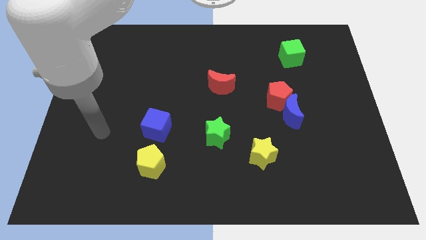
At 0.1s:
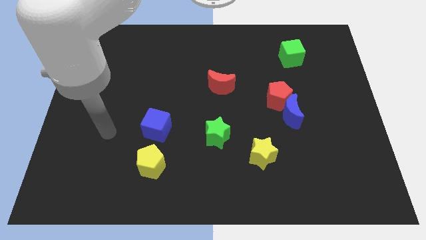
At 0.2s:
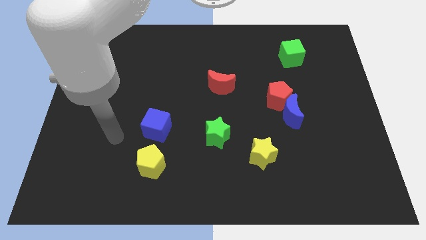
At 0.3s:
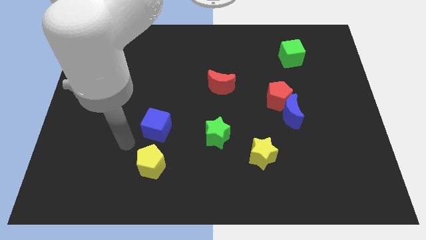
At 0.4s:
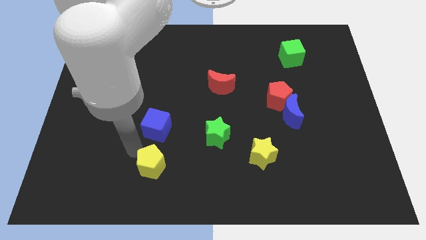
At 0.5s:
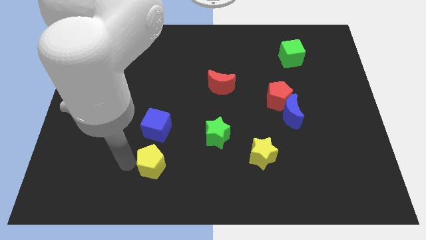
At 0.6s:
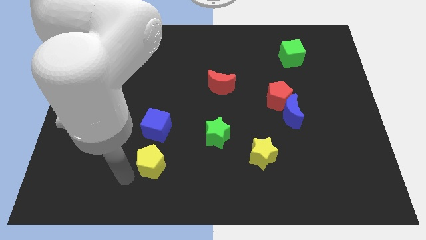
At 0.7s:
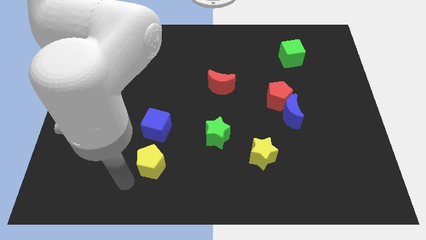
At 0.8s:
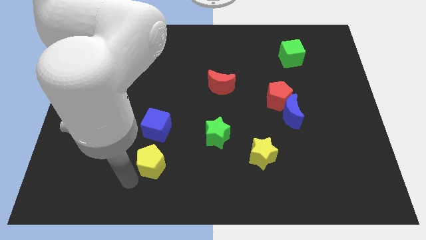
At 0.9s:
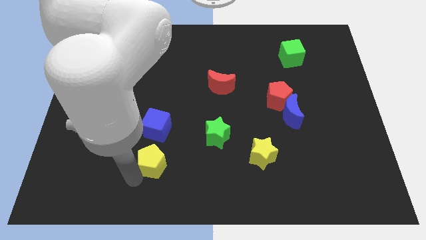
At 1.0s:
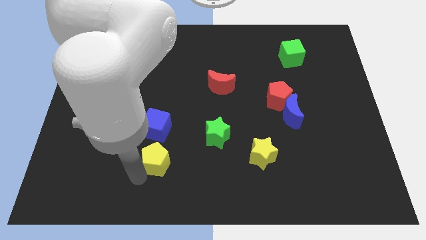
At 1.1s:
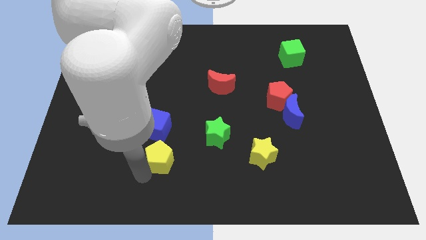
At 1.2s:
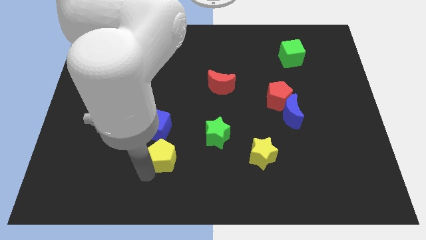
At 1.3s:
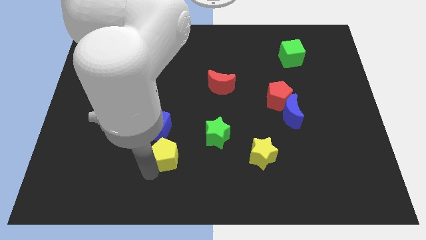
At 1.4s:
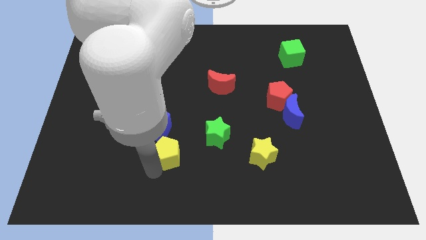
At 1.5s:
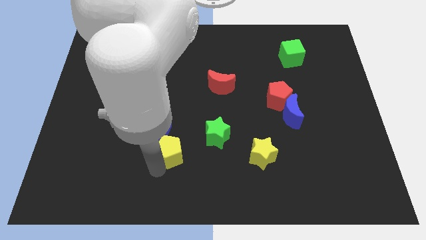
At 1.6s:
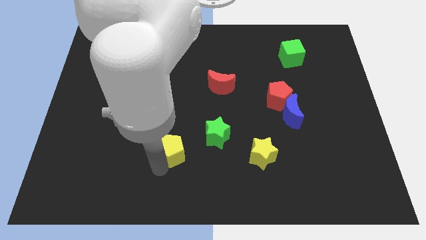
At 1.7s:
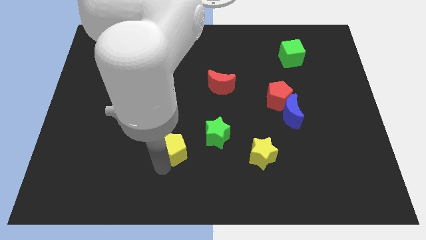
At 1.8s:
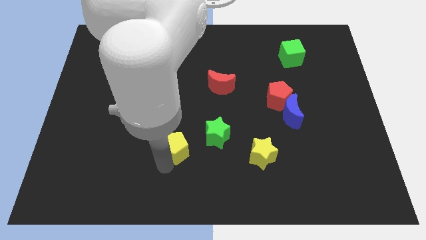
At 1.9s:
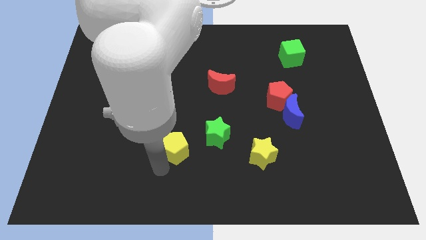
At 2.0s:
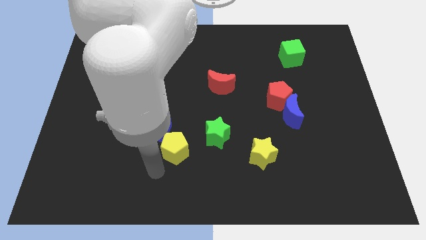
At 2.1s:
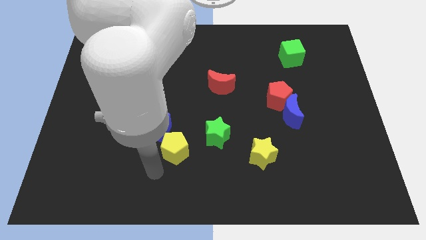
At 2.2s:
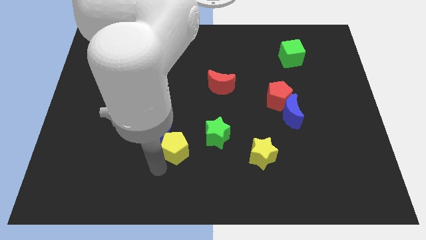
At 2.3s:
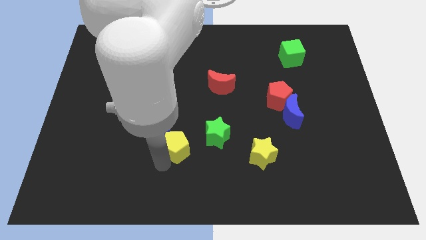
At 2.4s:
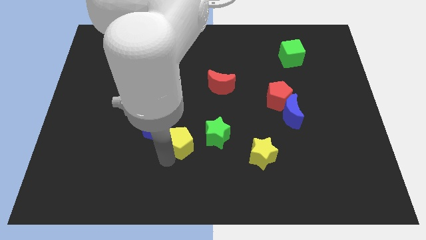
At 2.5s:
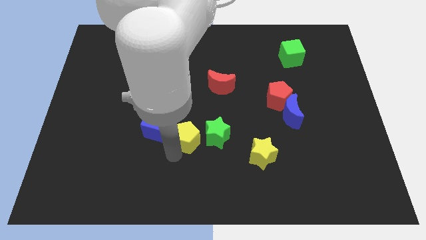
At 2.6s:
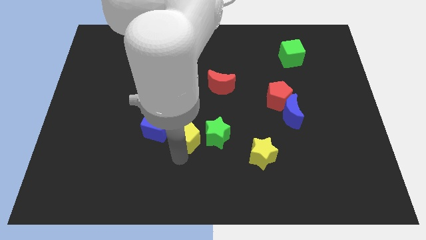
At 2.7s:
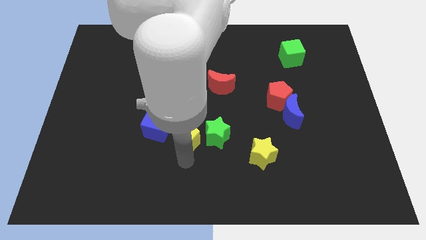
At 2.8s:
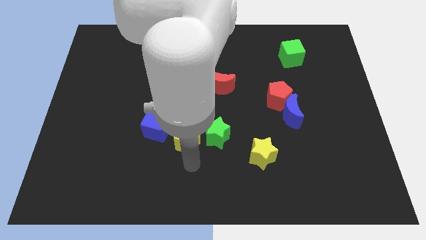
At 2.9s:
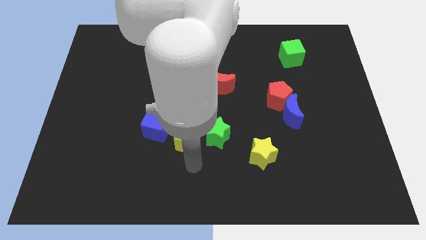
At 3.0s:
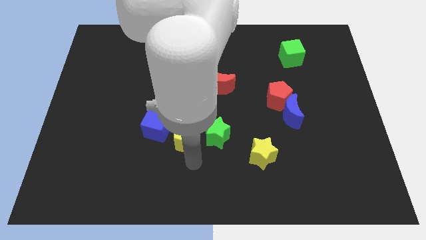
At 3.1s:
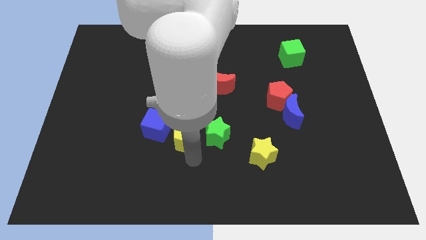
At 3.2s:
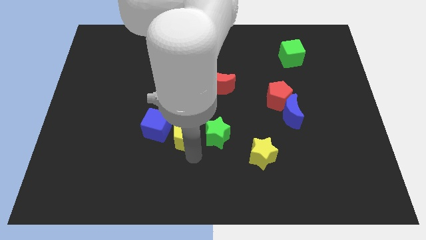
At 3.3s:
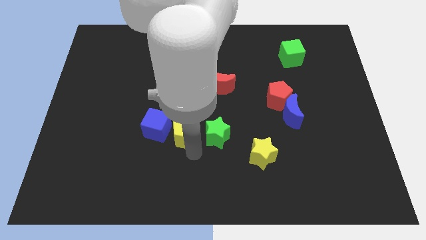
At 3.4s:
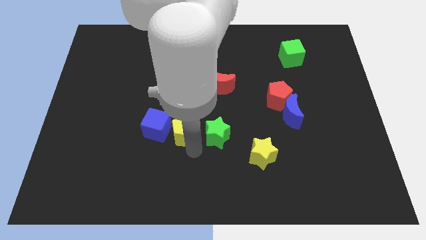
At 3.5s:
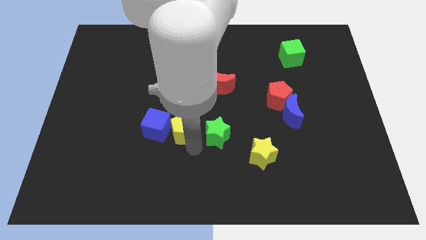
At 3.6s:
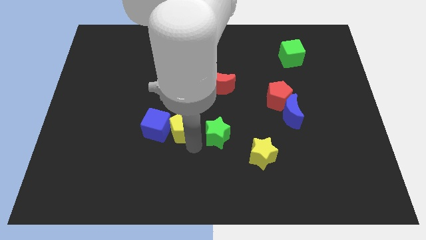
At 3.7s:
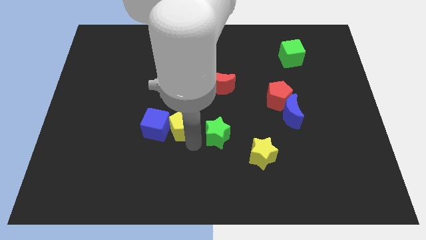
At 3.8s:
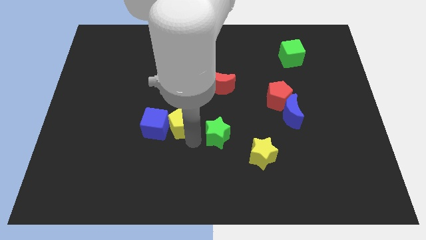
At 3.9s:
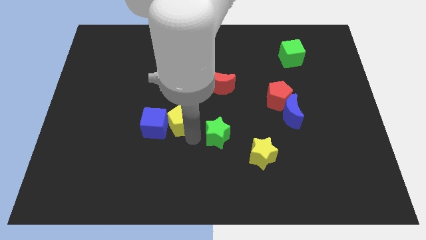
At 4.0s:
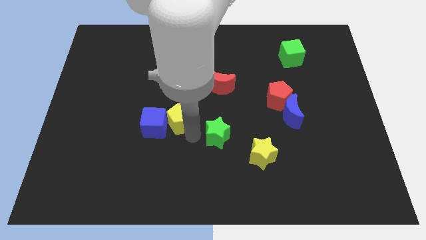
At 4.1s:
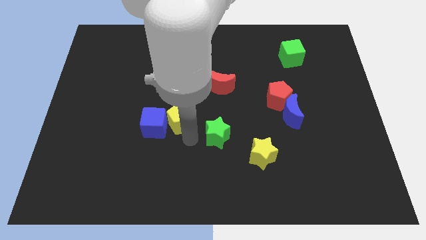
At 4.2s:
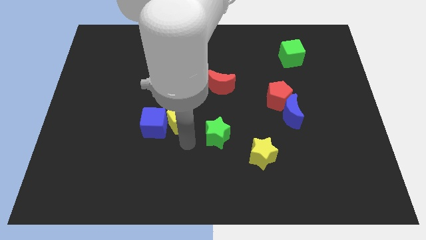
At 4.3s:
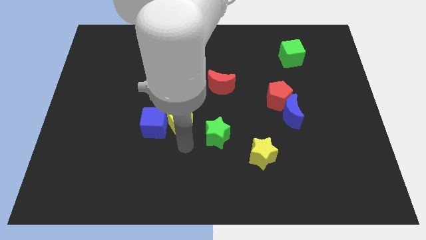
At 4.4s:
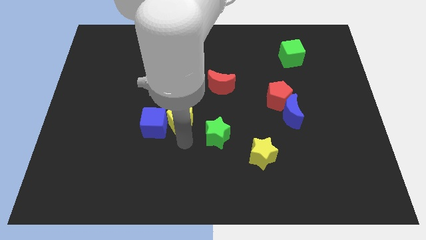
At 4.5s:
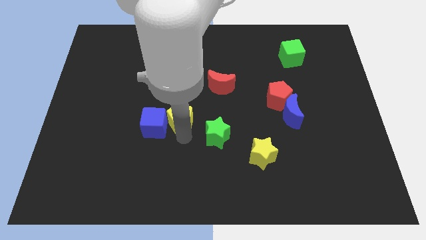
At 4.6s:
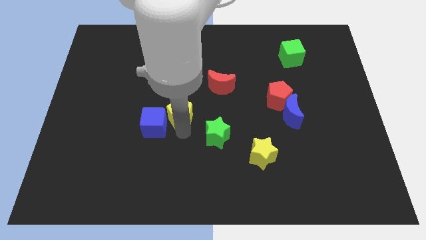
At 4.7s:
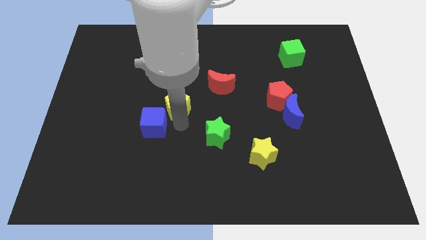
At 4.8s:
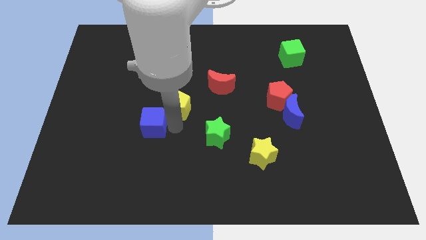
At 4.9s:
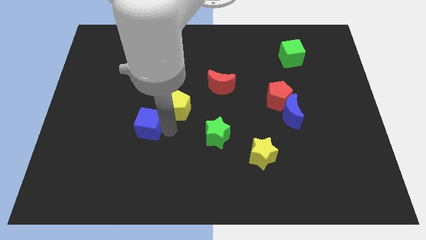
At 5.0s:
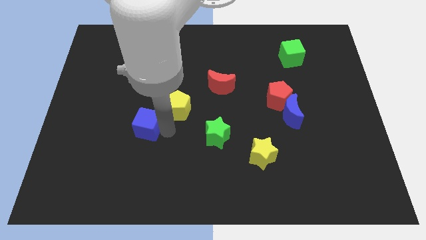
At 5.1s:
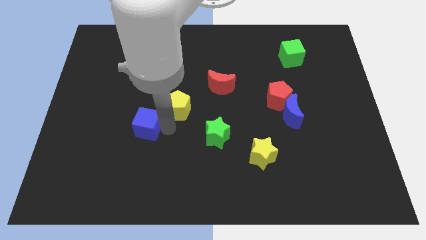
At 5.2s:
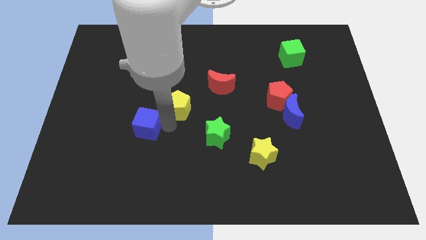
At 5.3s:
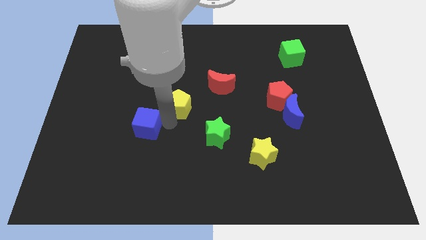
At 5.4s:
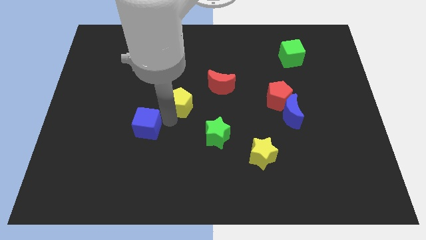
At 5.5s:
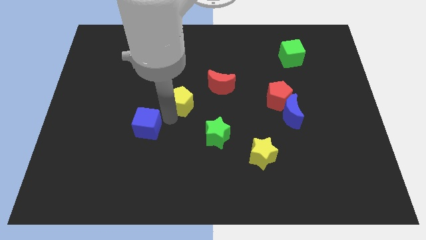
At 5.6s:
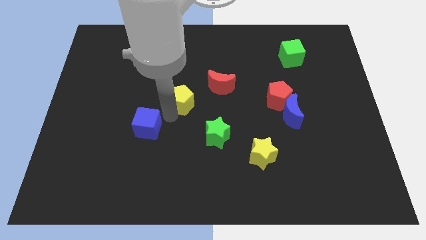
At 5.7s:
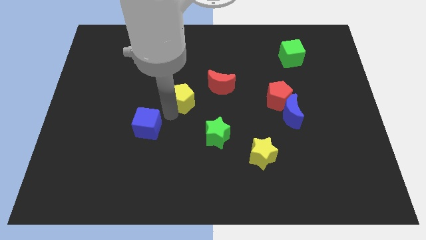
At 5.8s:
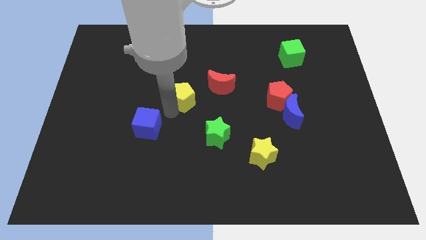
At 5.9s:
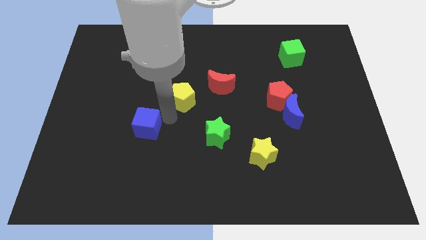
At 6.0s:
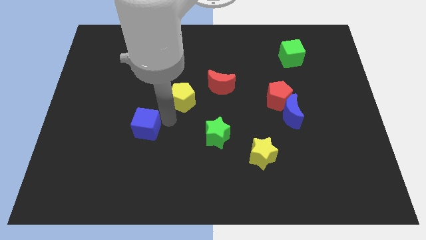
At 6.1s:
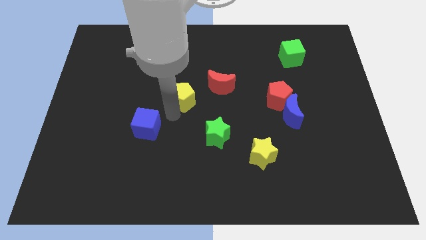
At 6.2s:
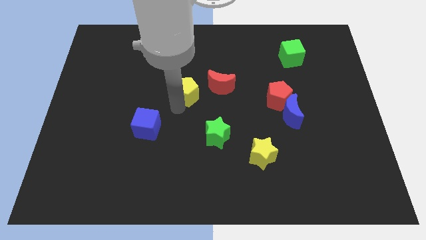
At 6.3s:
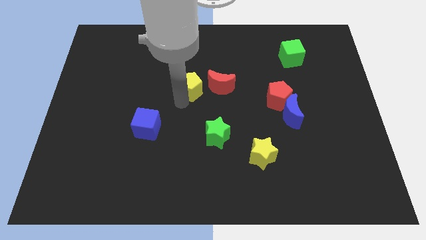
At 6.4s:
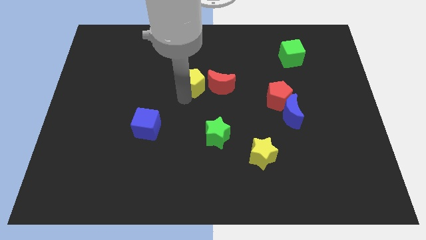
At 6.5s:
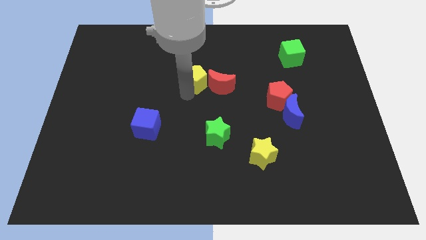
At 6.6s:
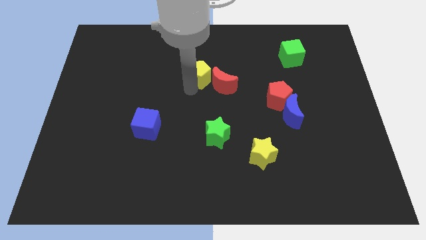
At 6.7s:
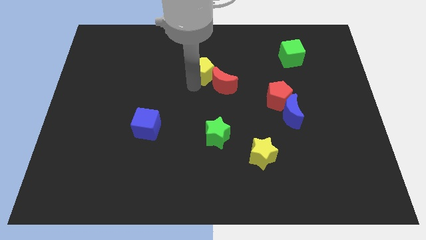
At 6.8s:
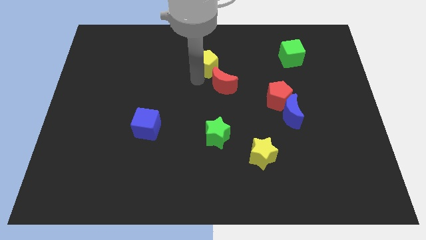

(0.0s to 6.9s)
move the yellow pentagon to the top side of the red moon

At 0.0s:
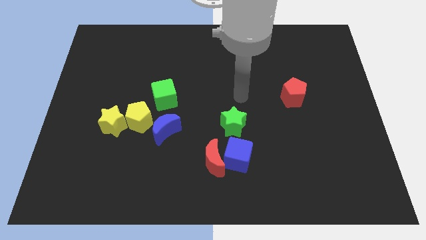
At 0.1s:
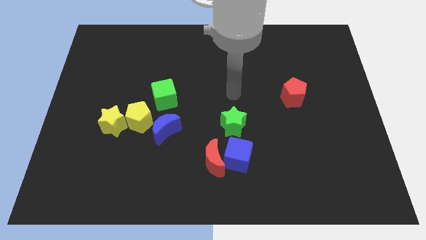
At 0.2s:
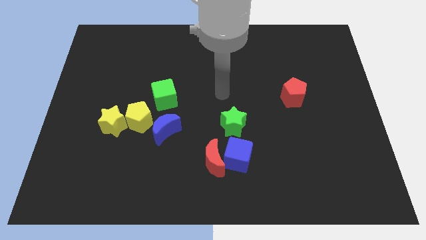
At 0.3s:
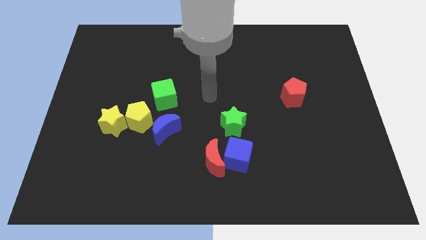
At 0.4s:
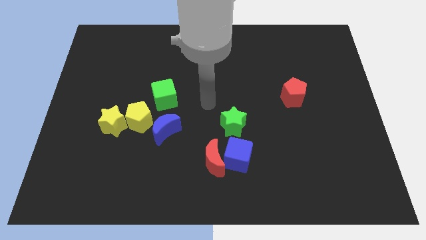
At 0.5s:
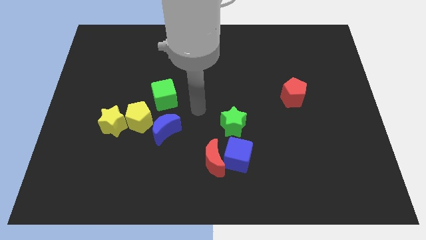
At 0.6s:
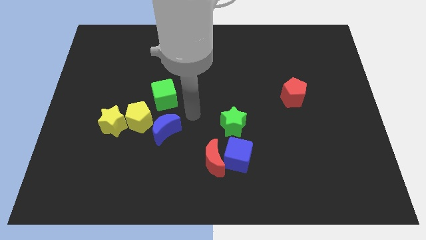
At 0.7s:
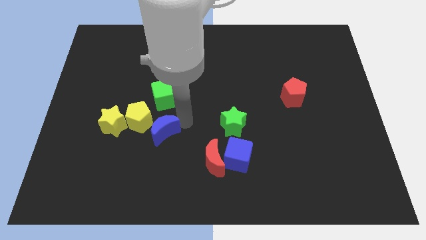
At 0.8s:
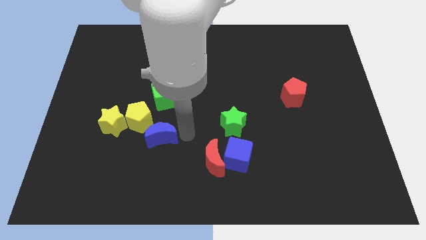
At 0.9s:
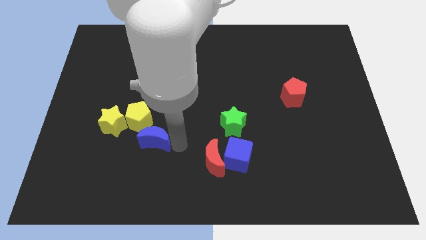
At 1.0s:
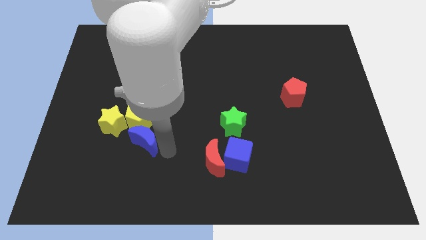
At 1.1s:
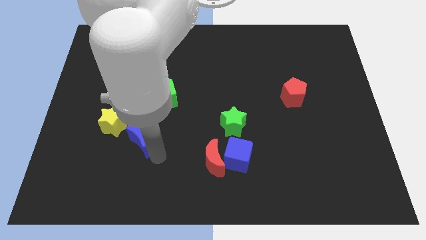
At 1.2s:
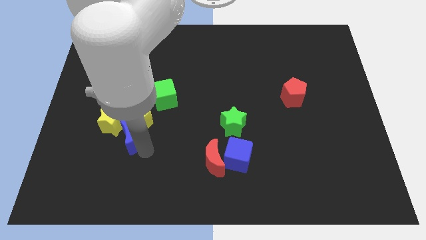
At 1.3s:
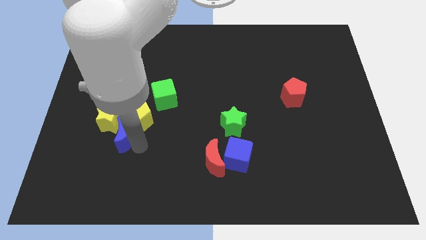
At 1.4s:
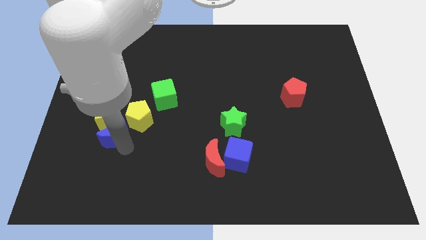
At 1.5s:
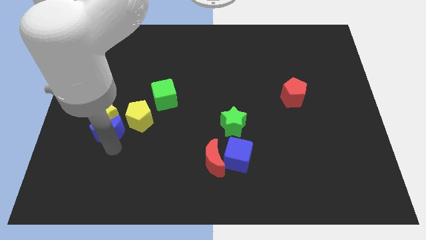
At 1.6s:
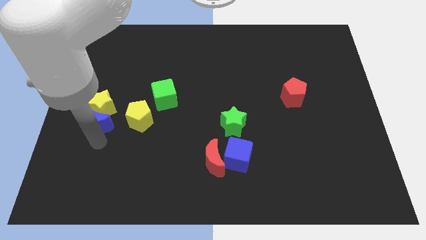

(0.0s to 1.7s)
move the yellow star just left of the green cube
